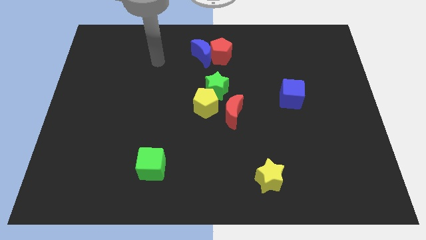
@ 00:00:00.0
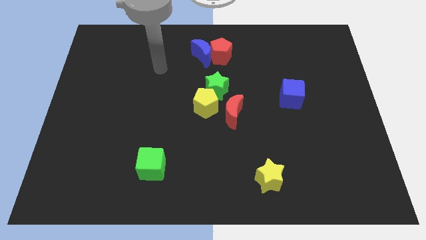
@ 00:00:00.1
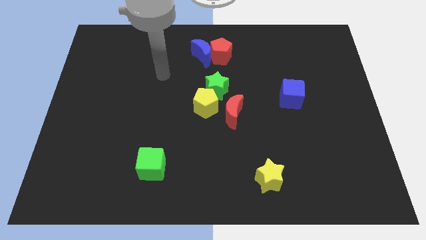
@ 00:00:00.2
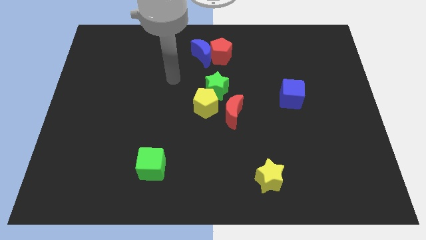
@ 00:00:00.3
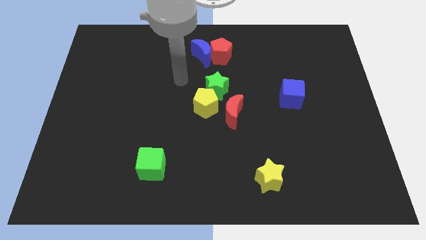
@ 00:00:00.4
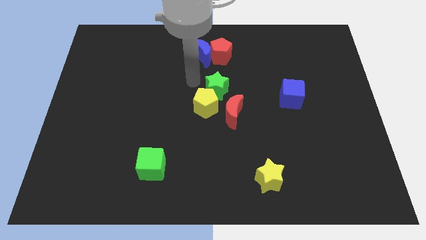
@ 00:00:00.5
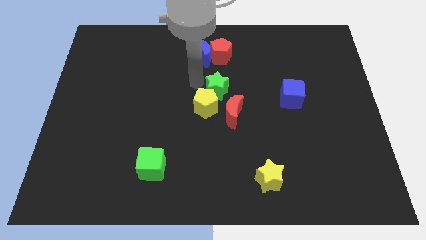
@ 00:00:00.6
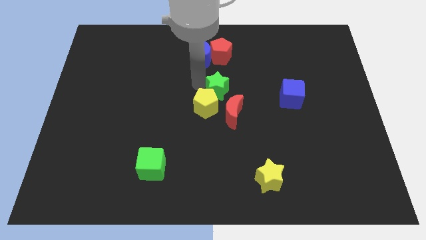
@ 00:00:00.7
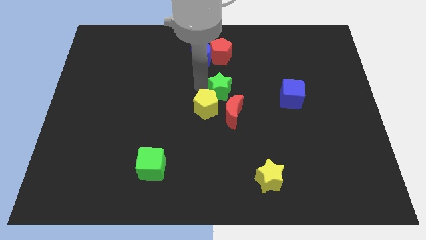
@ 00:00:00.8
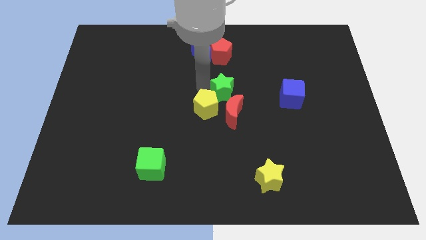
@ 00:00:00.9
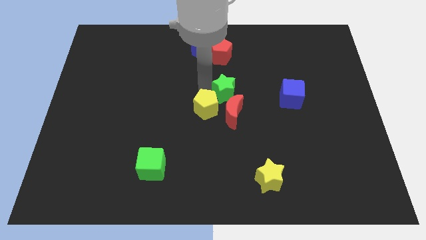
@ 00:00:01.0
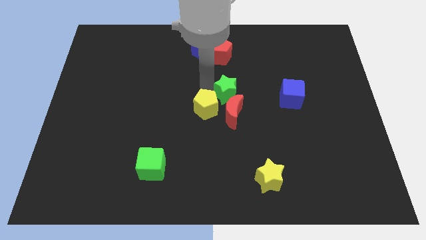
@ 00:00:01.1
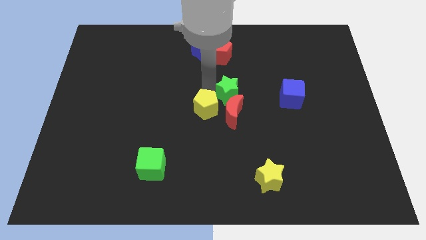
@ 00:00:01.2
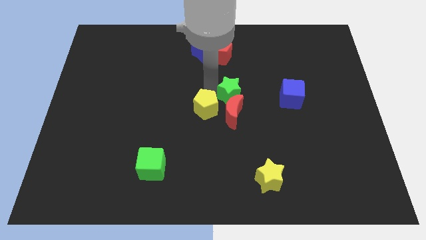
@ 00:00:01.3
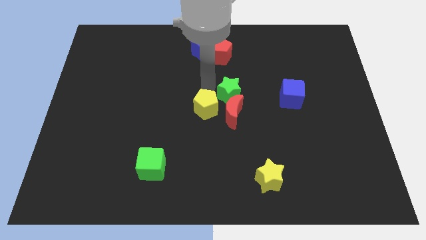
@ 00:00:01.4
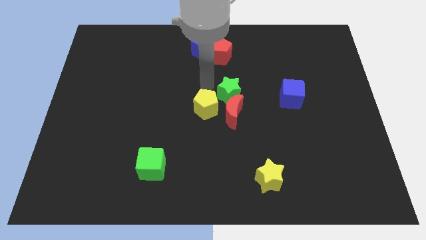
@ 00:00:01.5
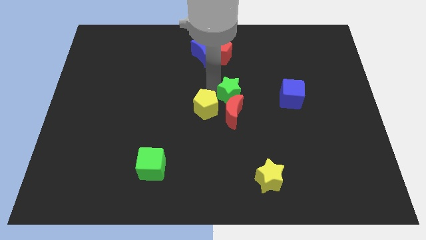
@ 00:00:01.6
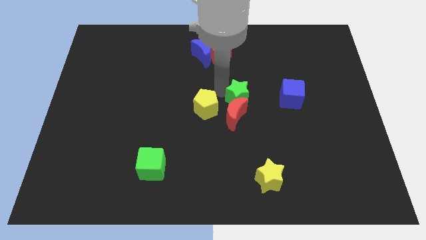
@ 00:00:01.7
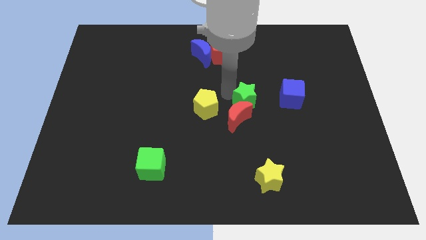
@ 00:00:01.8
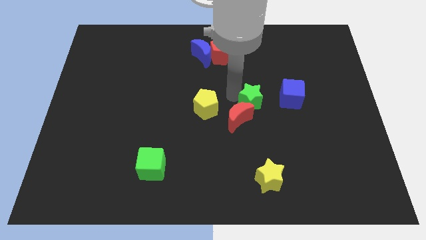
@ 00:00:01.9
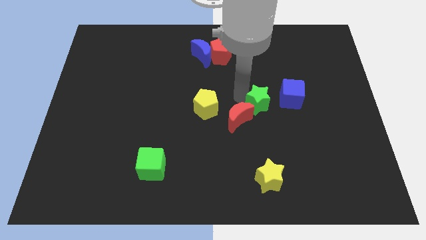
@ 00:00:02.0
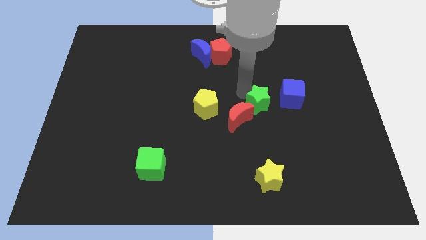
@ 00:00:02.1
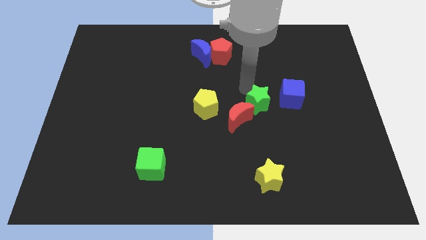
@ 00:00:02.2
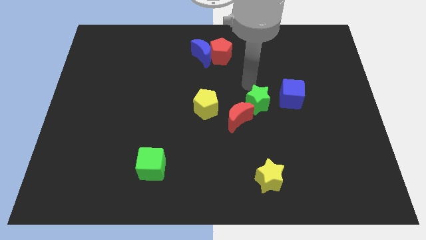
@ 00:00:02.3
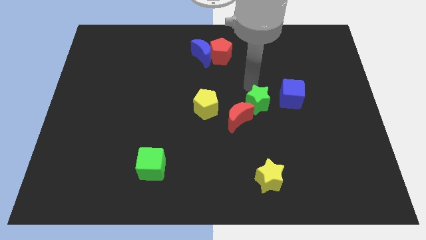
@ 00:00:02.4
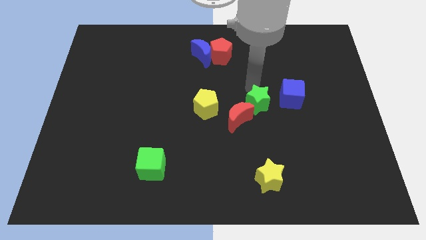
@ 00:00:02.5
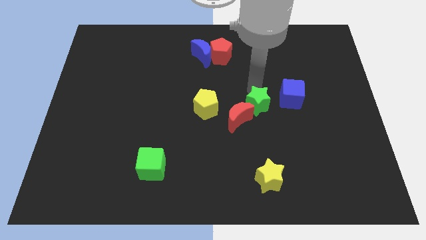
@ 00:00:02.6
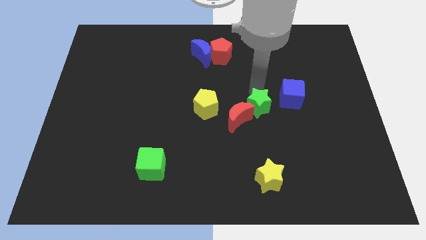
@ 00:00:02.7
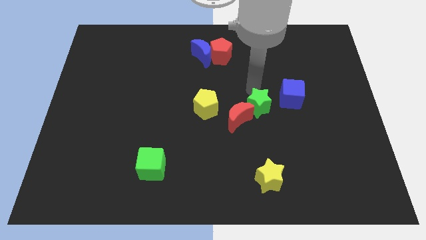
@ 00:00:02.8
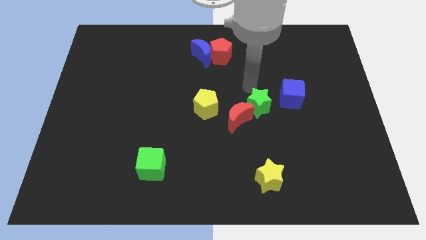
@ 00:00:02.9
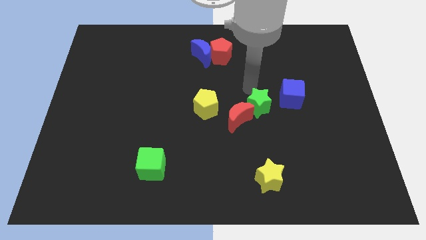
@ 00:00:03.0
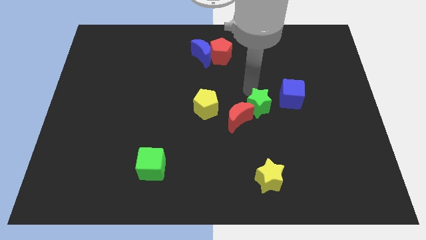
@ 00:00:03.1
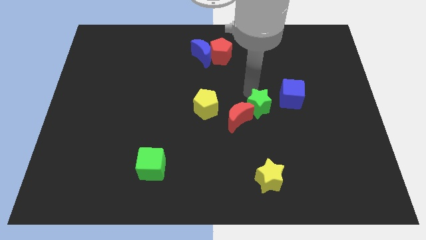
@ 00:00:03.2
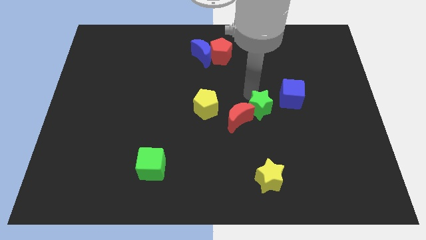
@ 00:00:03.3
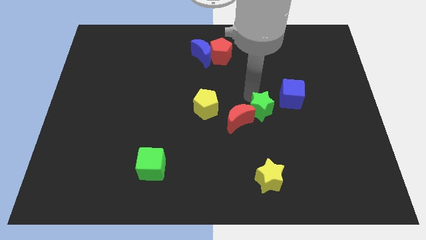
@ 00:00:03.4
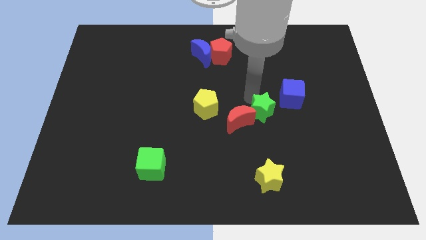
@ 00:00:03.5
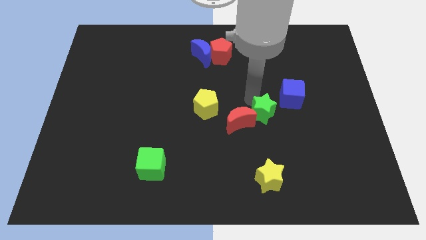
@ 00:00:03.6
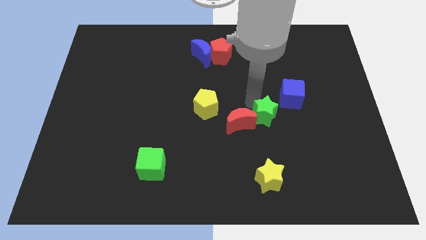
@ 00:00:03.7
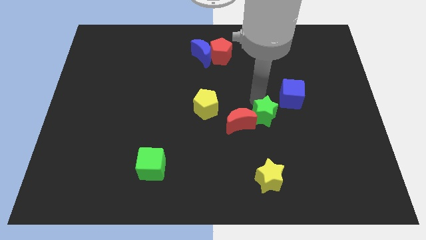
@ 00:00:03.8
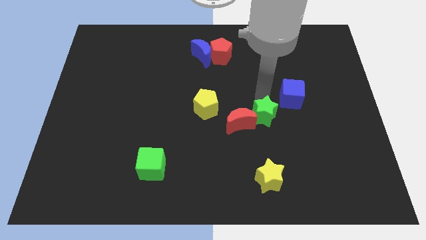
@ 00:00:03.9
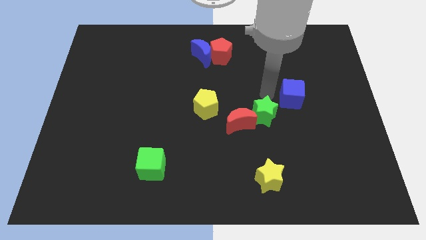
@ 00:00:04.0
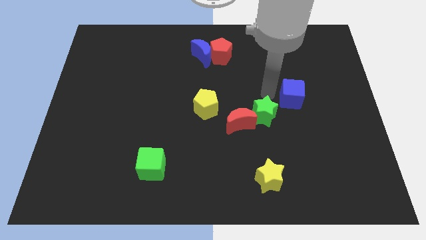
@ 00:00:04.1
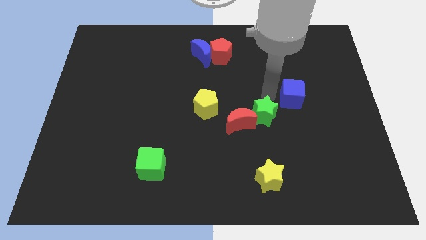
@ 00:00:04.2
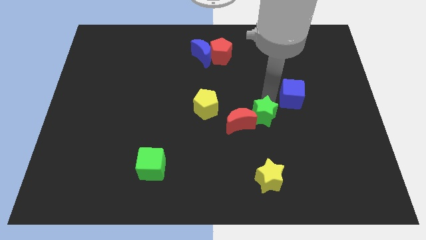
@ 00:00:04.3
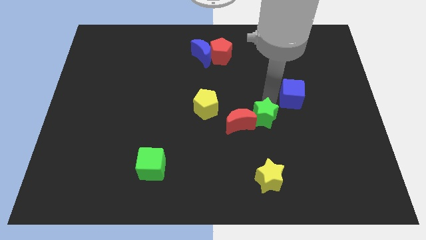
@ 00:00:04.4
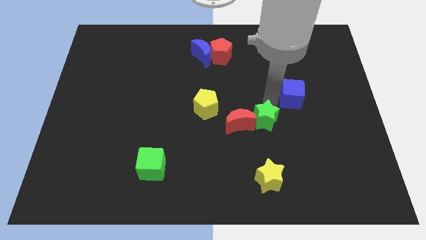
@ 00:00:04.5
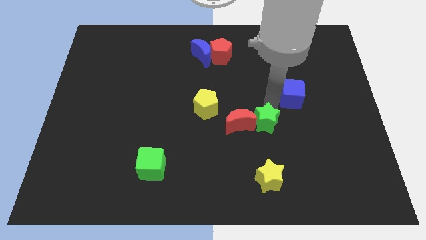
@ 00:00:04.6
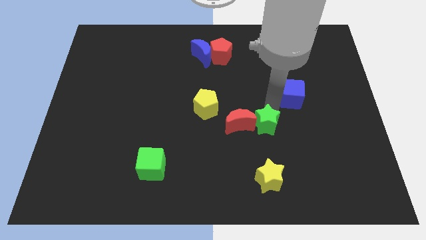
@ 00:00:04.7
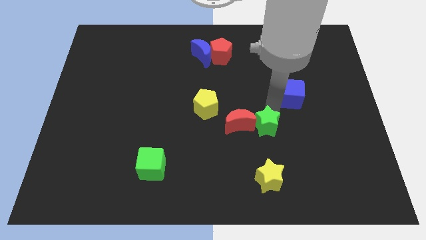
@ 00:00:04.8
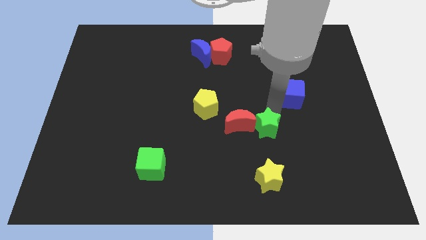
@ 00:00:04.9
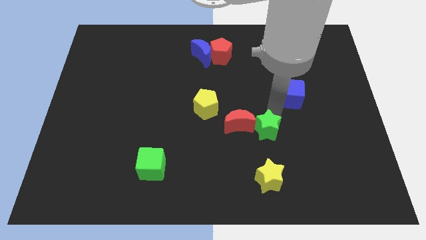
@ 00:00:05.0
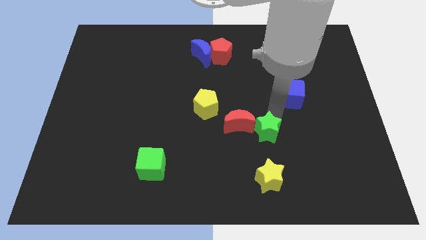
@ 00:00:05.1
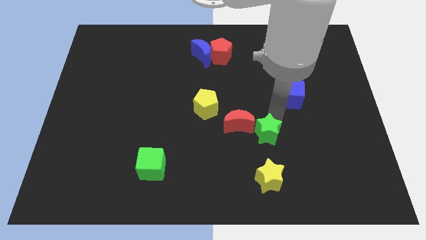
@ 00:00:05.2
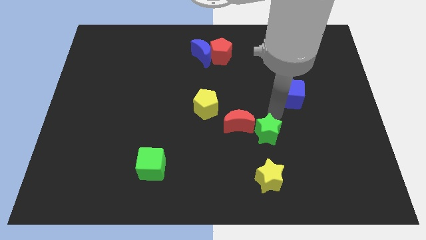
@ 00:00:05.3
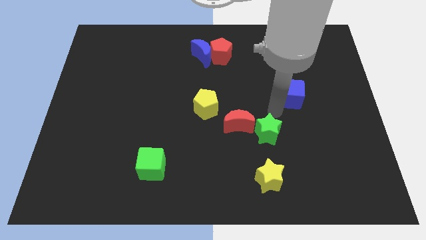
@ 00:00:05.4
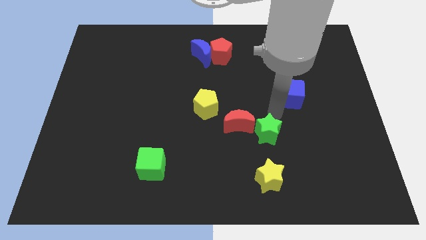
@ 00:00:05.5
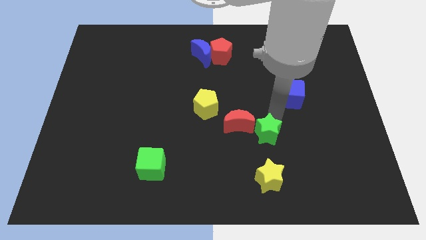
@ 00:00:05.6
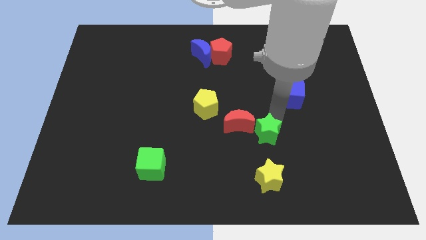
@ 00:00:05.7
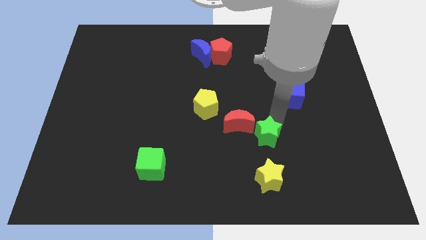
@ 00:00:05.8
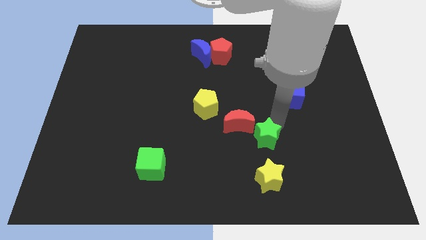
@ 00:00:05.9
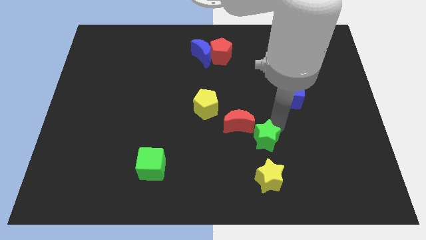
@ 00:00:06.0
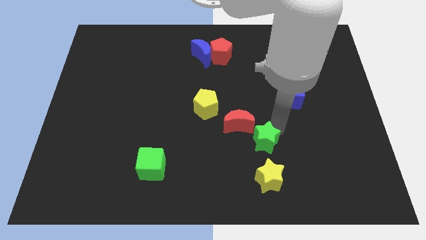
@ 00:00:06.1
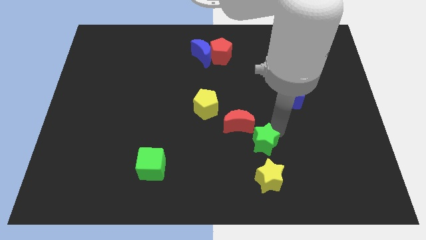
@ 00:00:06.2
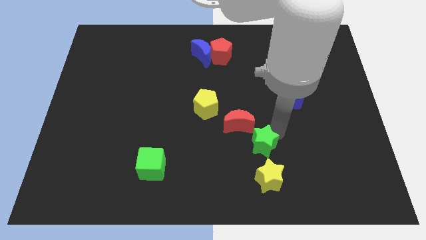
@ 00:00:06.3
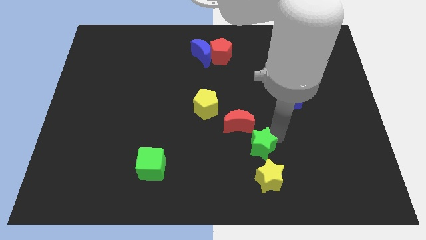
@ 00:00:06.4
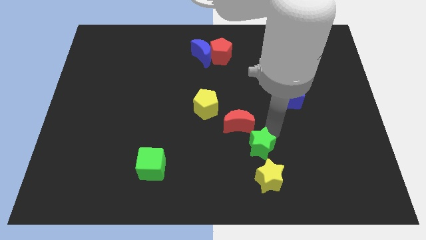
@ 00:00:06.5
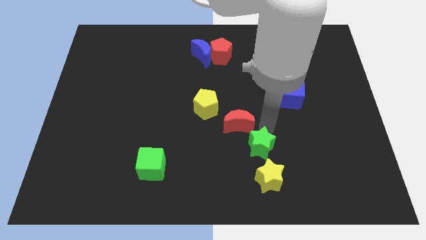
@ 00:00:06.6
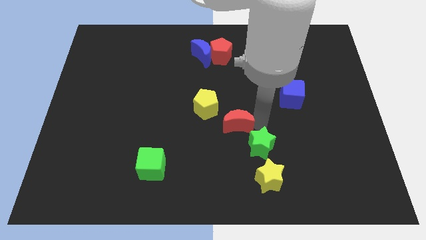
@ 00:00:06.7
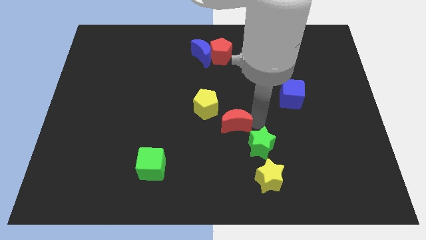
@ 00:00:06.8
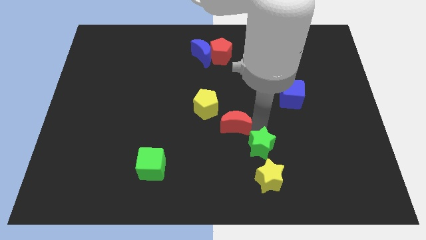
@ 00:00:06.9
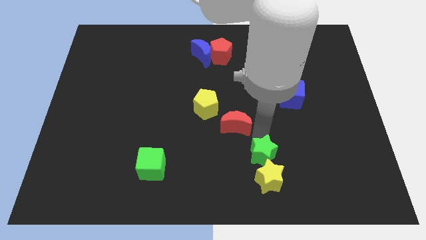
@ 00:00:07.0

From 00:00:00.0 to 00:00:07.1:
push the green star close to the yellow star
